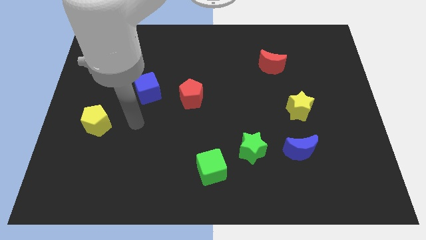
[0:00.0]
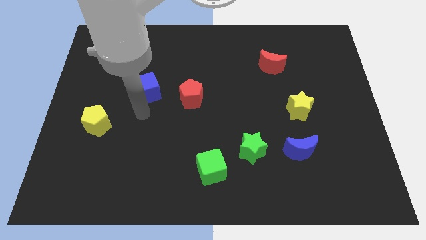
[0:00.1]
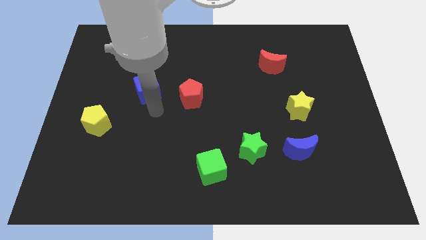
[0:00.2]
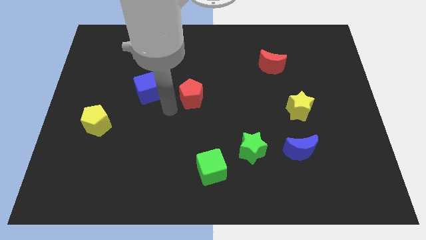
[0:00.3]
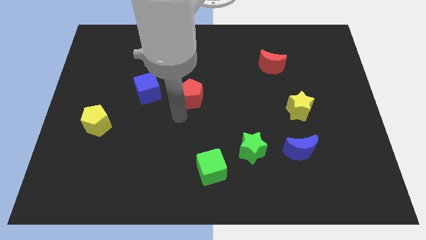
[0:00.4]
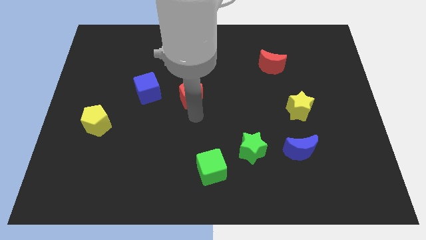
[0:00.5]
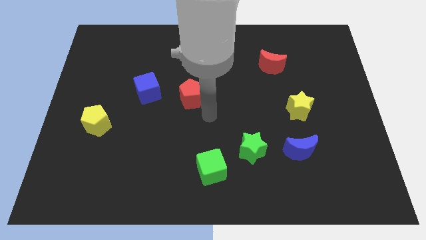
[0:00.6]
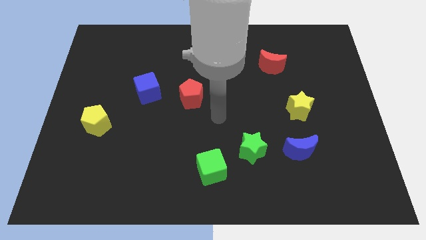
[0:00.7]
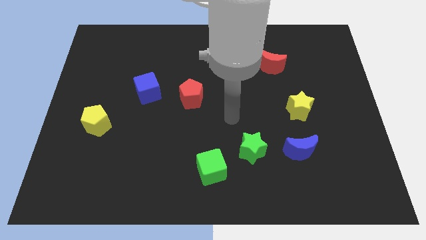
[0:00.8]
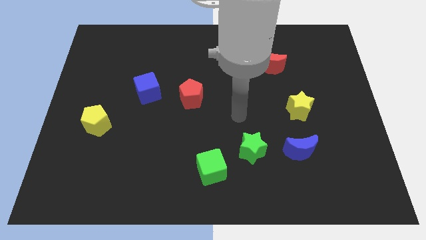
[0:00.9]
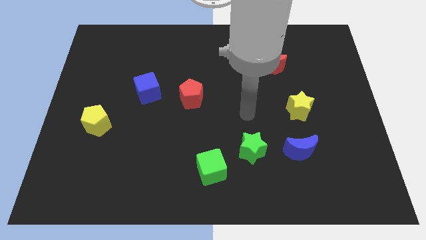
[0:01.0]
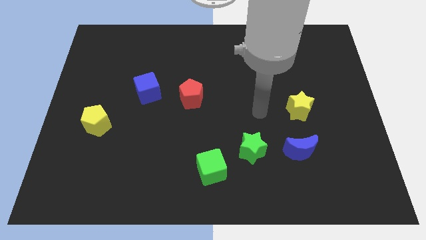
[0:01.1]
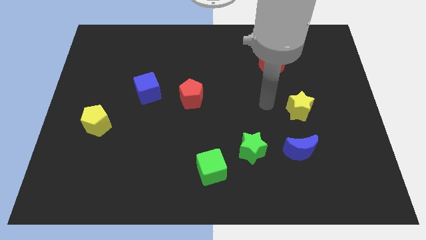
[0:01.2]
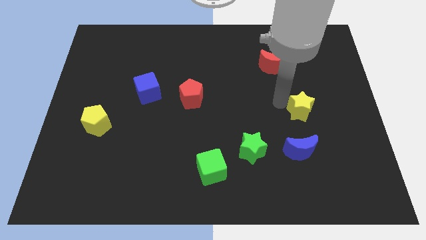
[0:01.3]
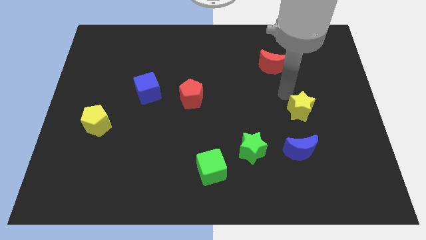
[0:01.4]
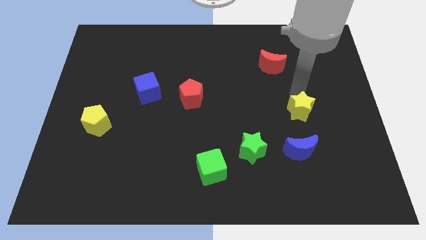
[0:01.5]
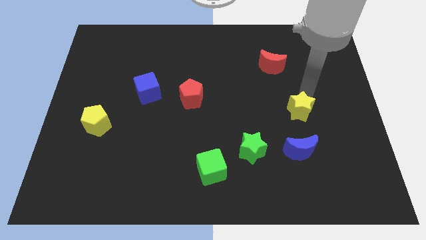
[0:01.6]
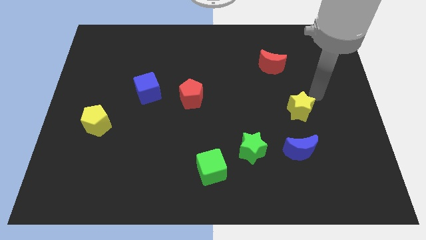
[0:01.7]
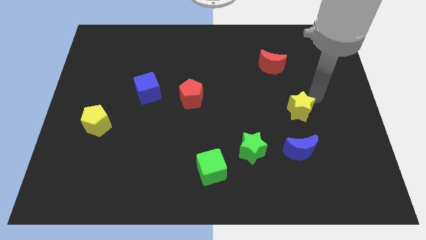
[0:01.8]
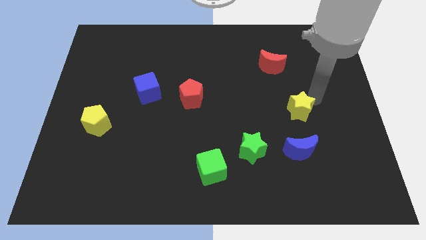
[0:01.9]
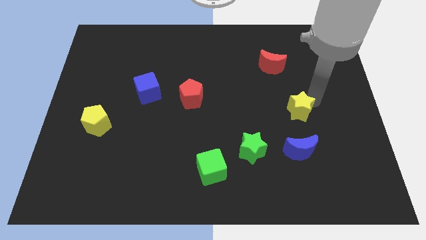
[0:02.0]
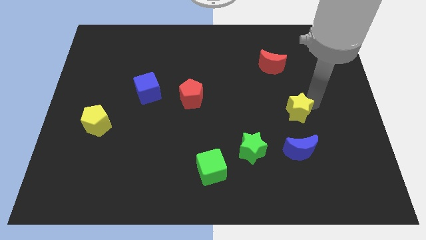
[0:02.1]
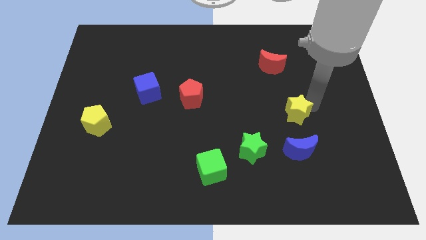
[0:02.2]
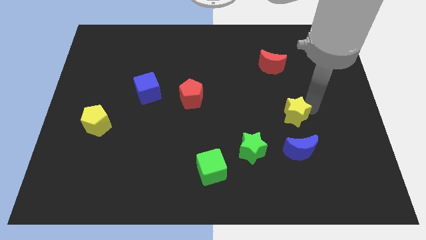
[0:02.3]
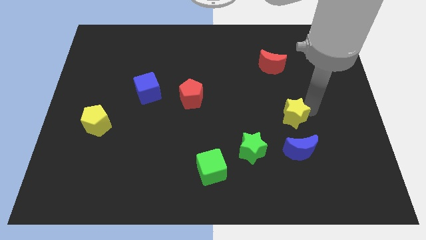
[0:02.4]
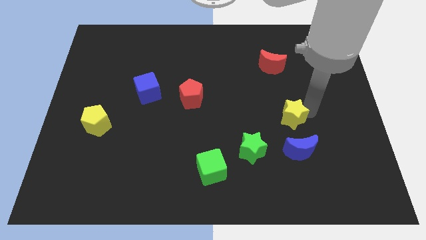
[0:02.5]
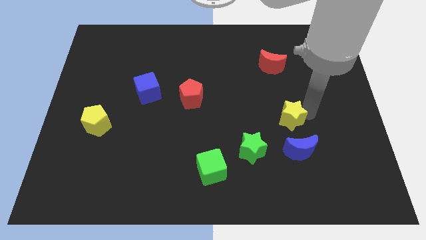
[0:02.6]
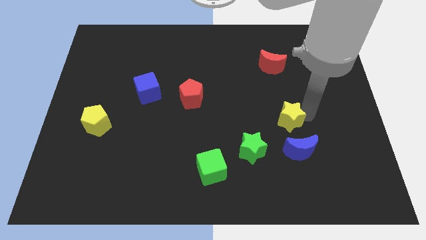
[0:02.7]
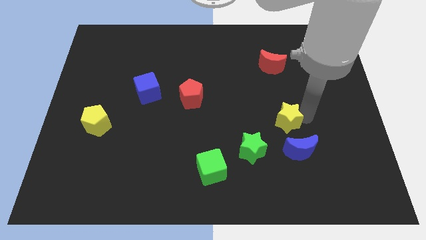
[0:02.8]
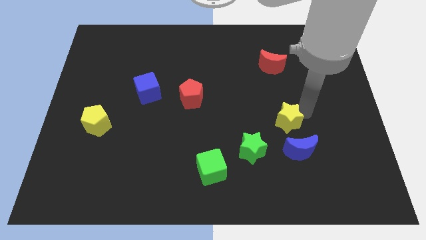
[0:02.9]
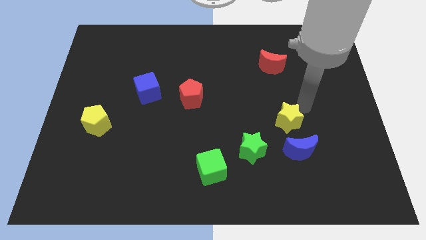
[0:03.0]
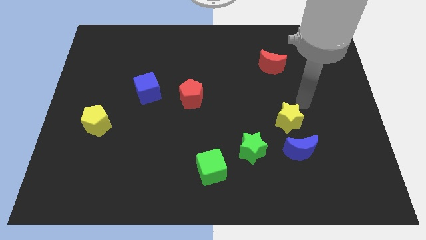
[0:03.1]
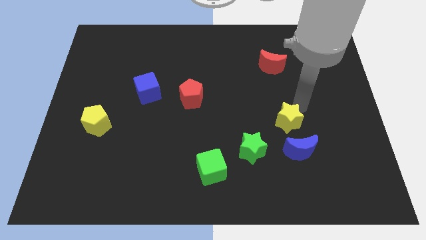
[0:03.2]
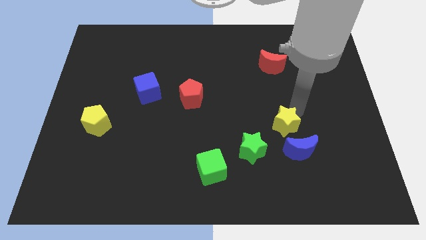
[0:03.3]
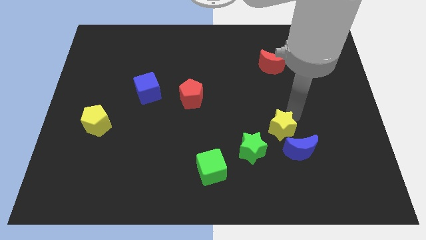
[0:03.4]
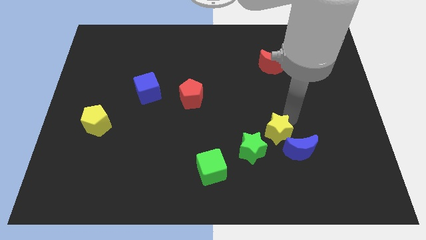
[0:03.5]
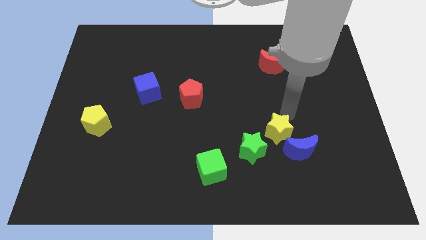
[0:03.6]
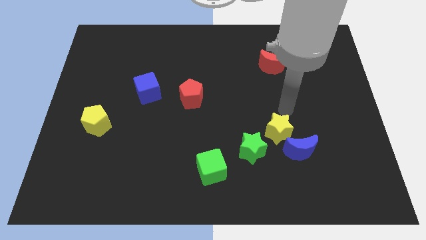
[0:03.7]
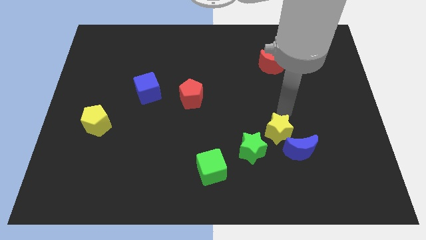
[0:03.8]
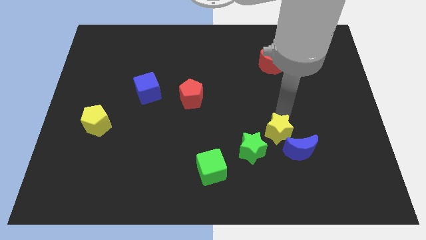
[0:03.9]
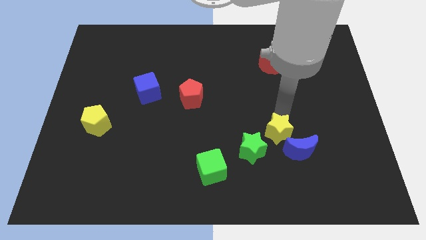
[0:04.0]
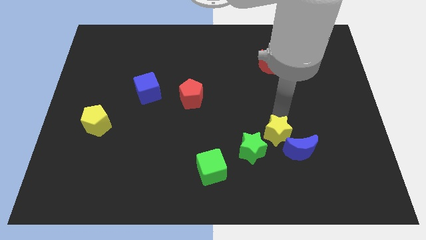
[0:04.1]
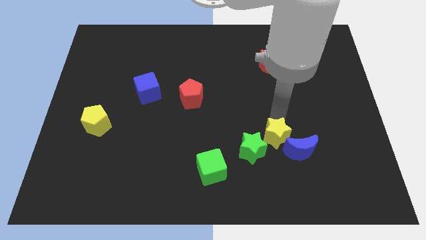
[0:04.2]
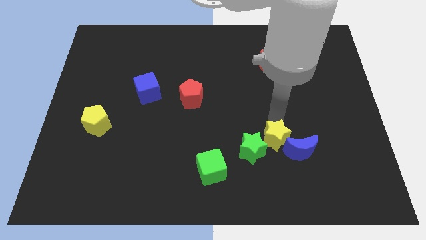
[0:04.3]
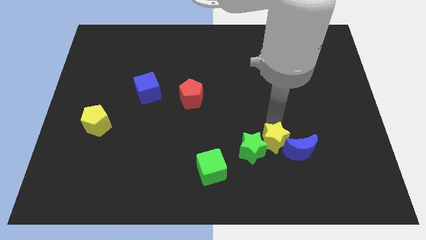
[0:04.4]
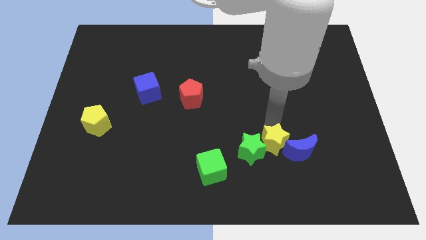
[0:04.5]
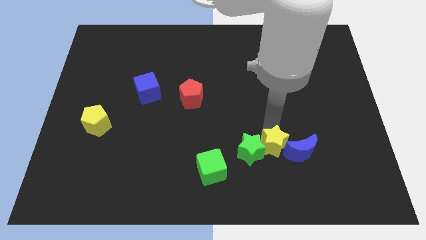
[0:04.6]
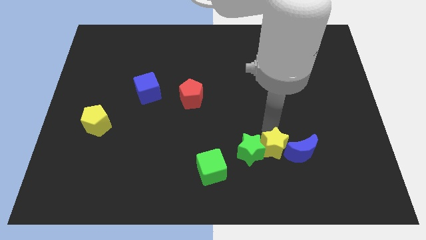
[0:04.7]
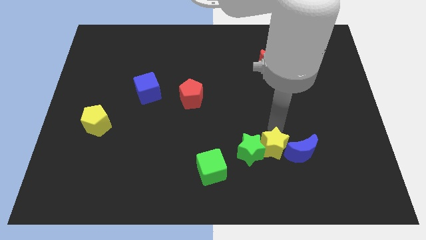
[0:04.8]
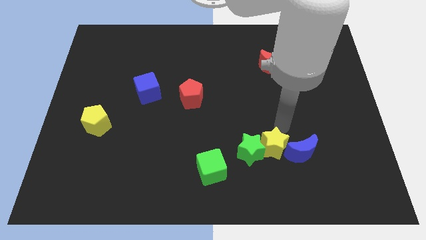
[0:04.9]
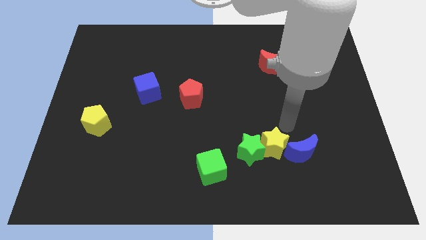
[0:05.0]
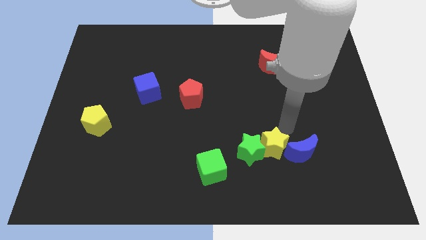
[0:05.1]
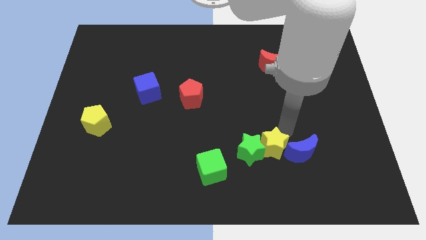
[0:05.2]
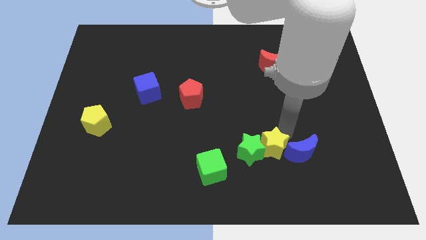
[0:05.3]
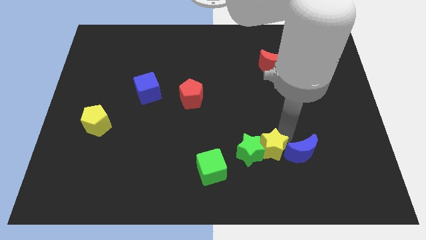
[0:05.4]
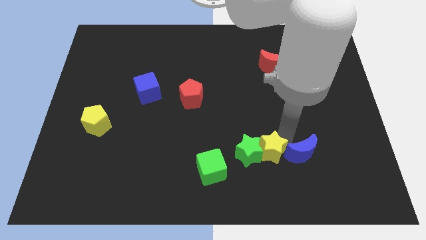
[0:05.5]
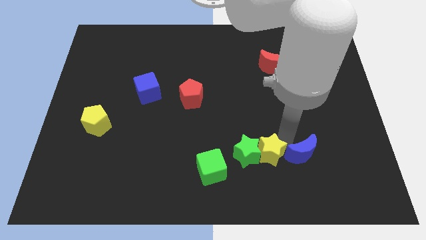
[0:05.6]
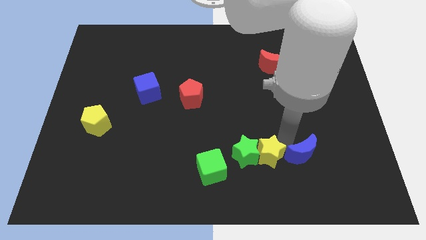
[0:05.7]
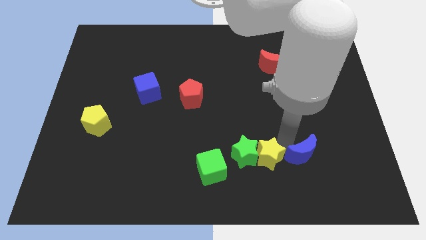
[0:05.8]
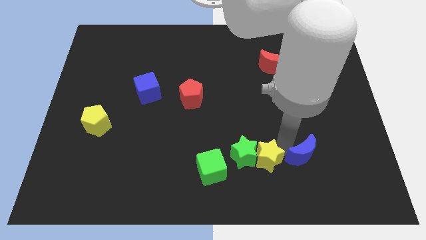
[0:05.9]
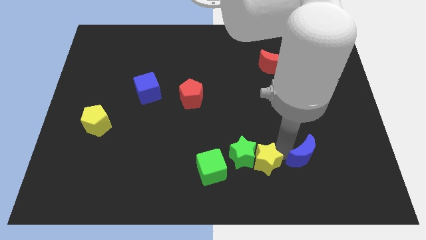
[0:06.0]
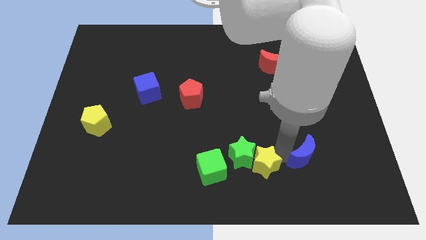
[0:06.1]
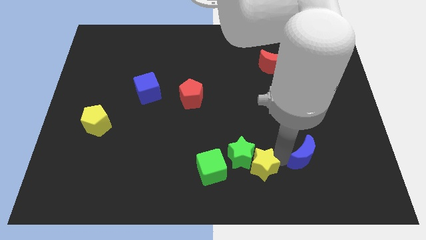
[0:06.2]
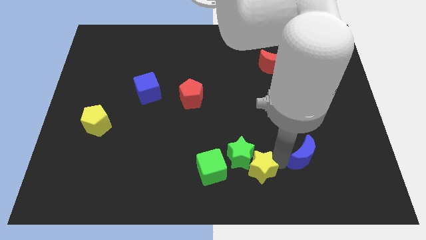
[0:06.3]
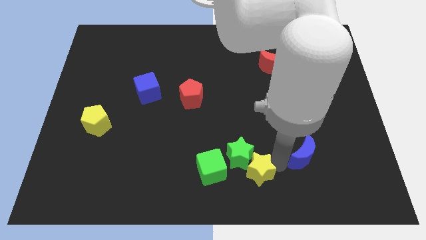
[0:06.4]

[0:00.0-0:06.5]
push the yellow star to the bottom side
